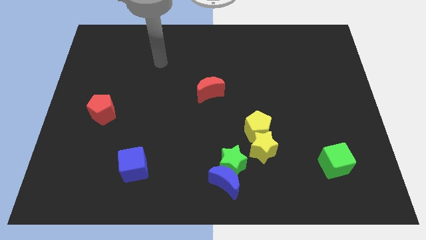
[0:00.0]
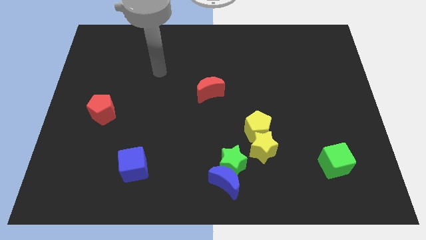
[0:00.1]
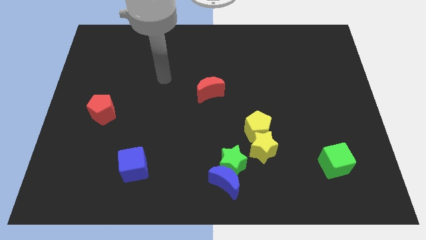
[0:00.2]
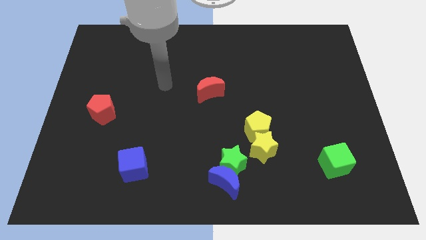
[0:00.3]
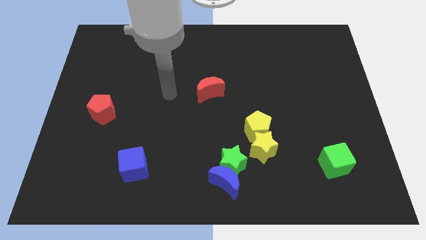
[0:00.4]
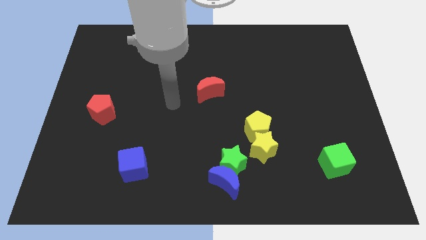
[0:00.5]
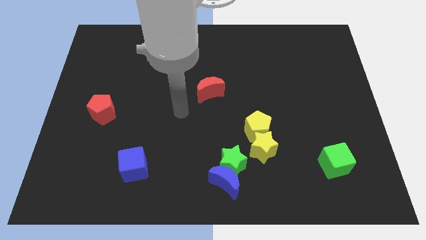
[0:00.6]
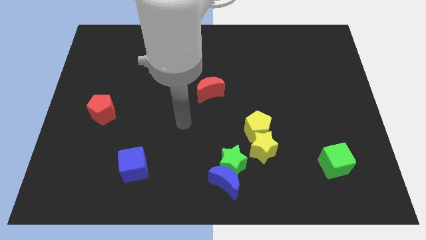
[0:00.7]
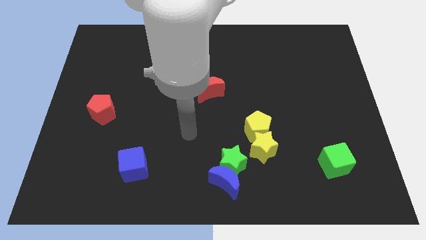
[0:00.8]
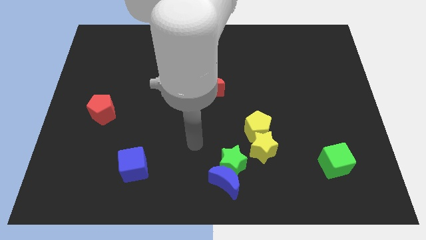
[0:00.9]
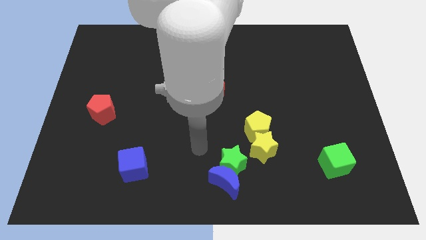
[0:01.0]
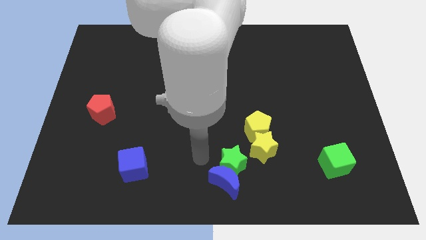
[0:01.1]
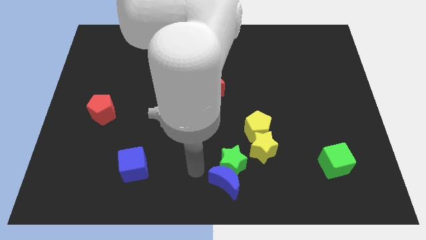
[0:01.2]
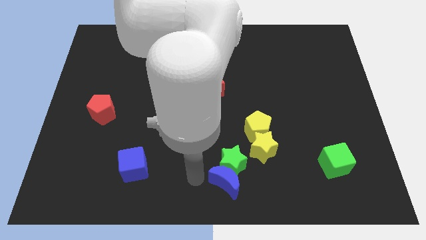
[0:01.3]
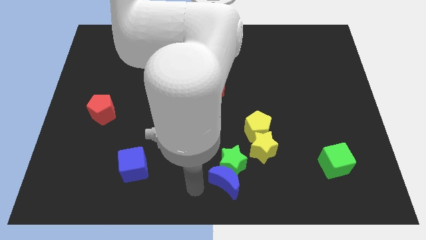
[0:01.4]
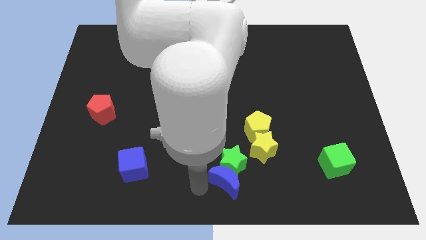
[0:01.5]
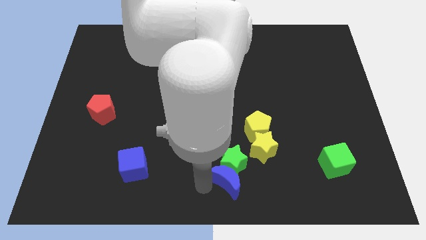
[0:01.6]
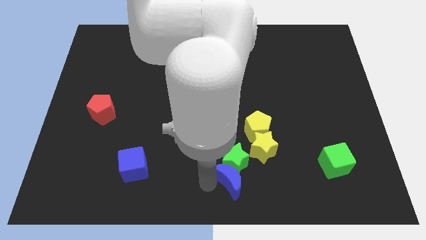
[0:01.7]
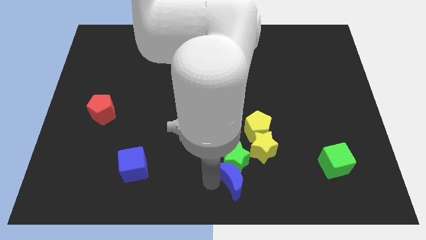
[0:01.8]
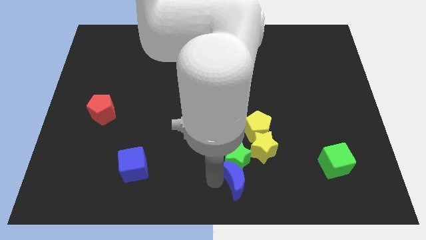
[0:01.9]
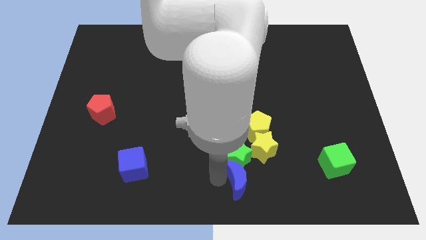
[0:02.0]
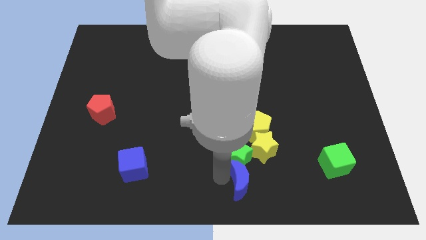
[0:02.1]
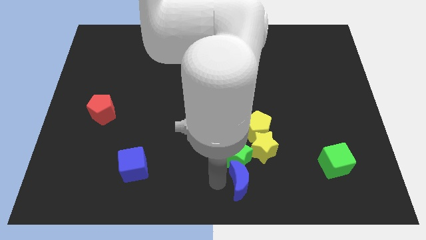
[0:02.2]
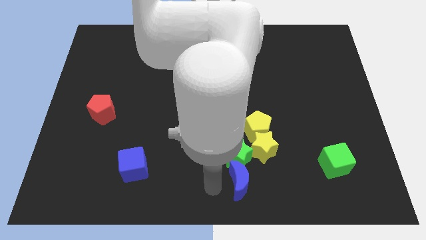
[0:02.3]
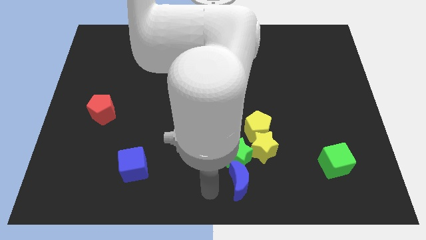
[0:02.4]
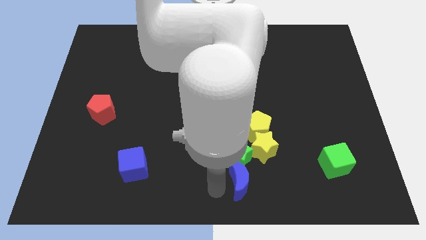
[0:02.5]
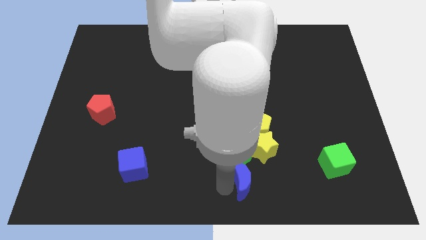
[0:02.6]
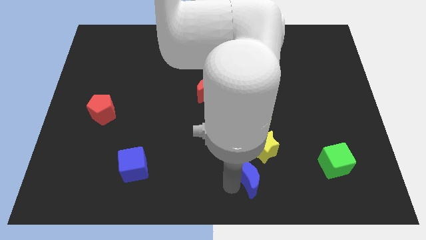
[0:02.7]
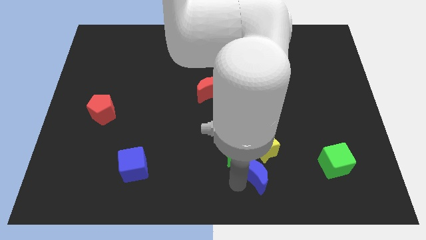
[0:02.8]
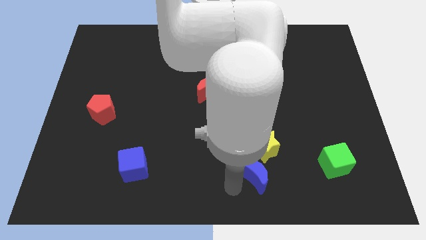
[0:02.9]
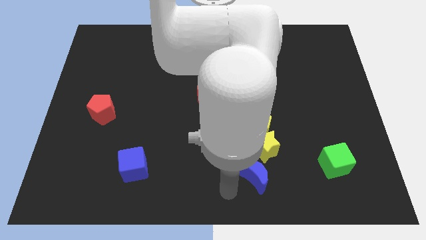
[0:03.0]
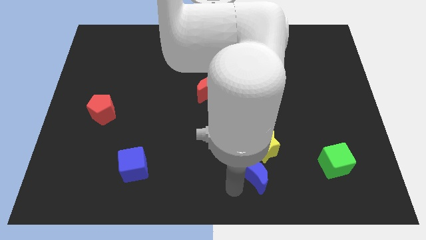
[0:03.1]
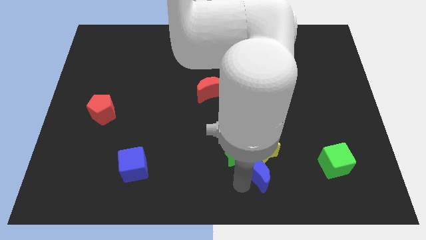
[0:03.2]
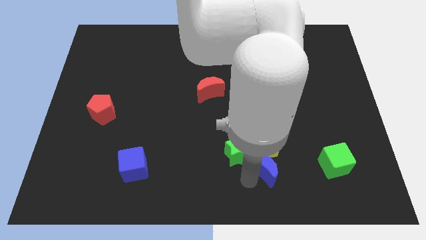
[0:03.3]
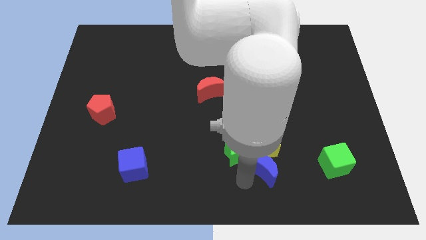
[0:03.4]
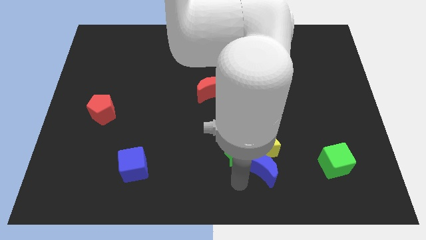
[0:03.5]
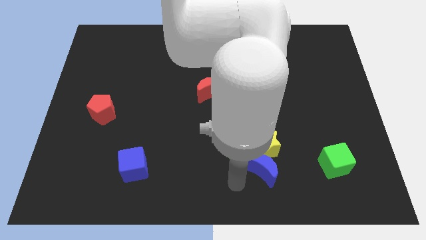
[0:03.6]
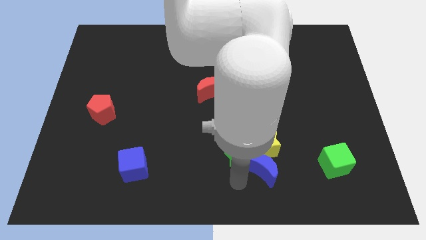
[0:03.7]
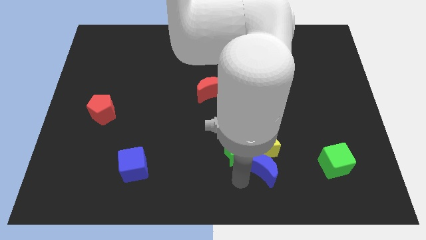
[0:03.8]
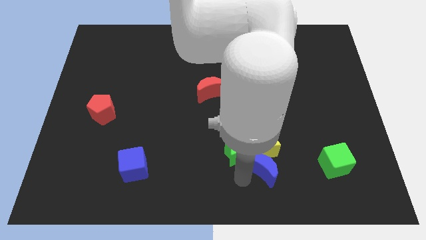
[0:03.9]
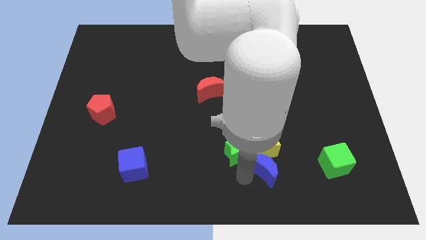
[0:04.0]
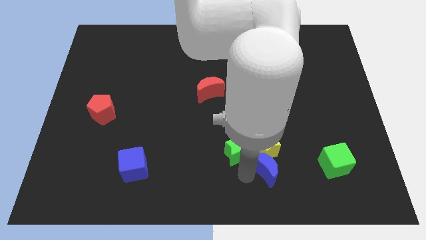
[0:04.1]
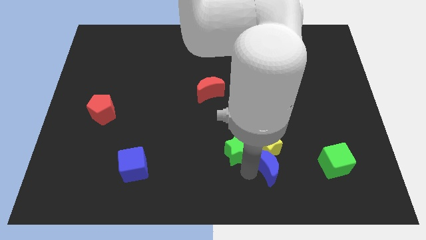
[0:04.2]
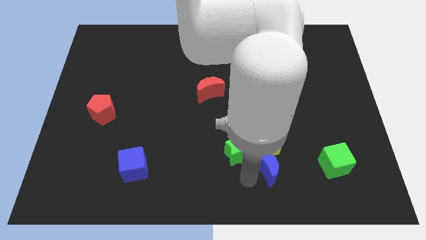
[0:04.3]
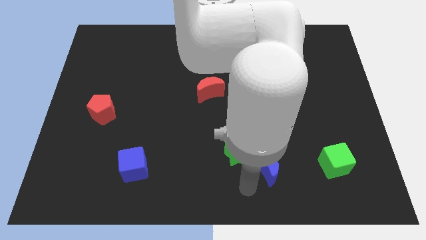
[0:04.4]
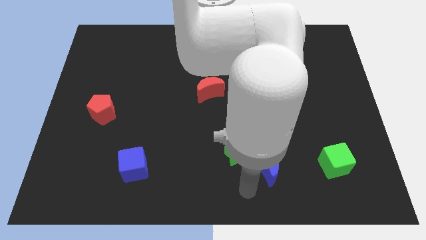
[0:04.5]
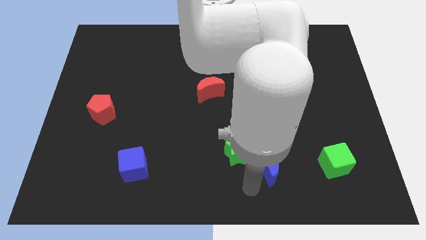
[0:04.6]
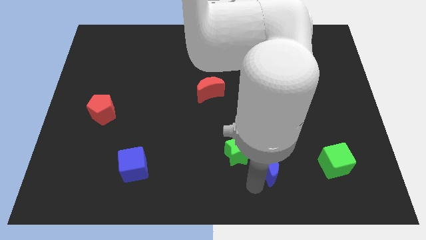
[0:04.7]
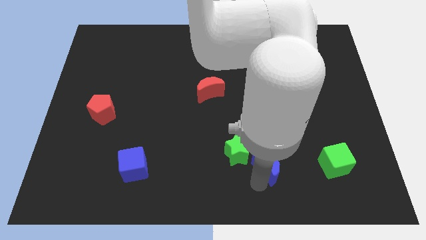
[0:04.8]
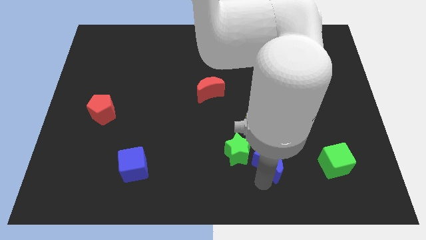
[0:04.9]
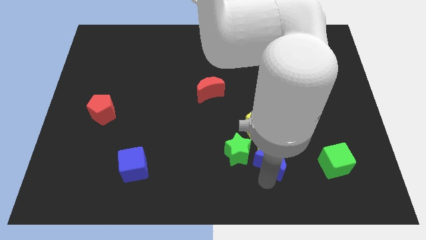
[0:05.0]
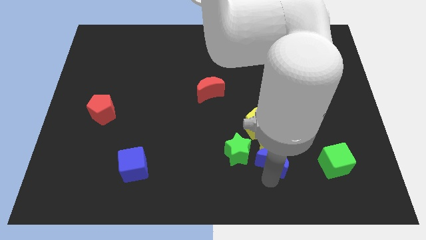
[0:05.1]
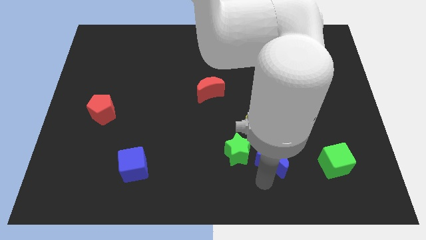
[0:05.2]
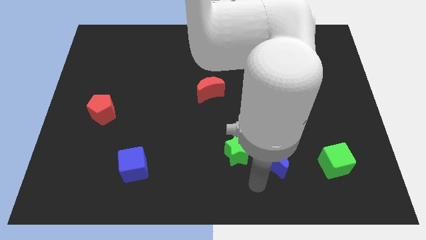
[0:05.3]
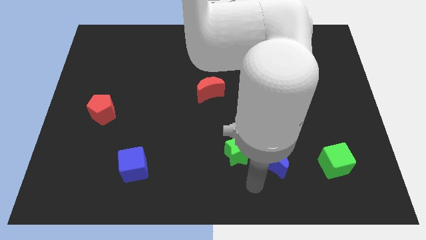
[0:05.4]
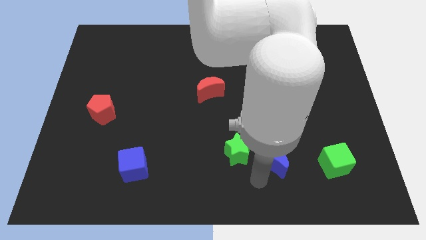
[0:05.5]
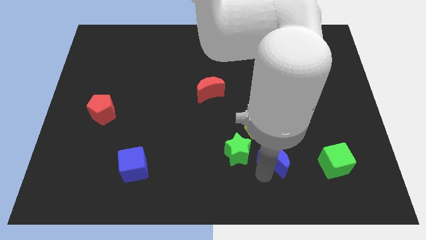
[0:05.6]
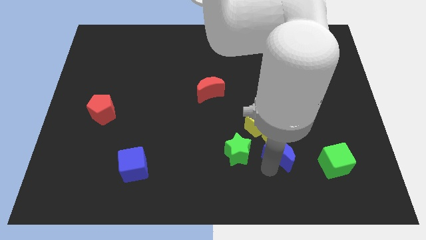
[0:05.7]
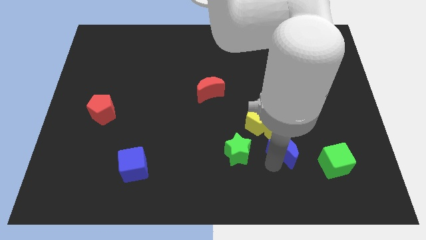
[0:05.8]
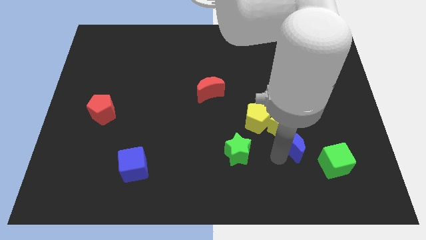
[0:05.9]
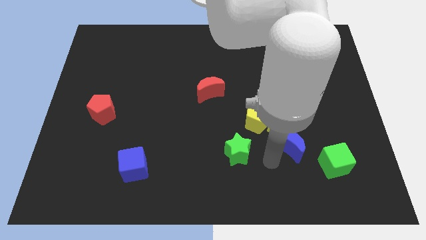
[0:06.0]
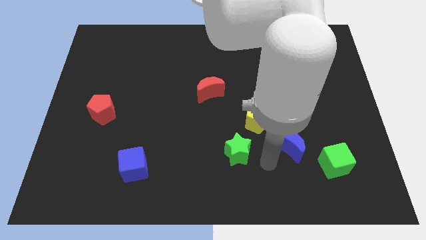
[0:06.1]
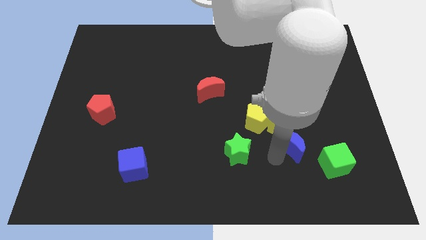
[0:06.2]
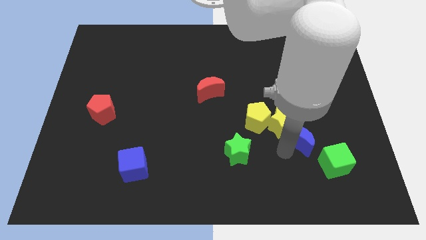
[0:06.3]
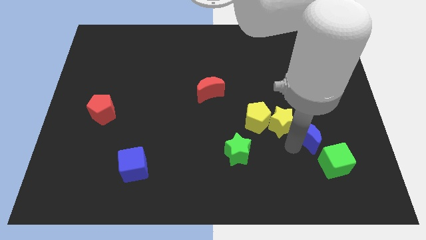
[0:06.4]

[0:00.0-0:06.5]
slide the blue moon to the top of the green cube
